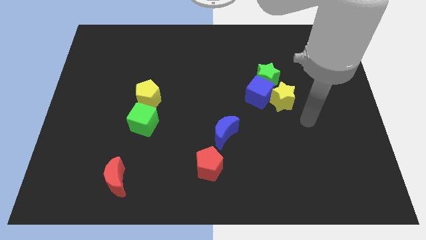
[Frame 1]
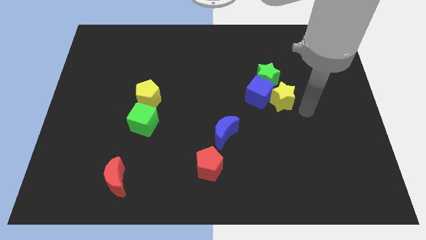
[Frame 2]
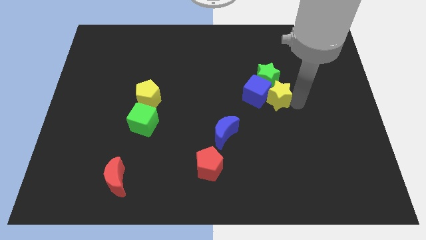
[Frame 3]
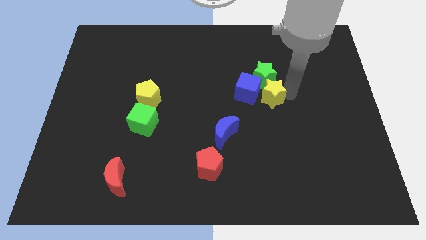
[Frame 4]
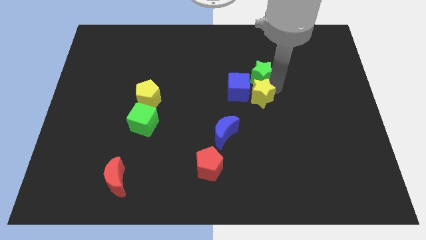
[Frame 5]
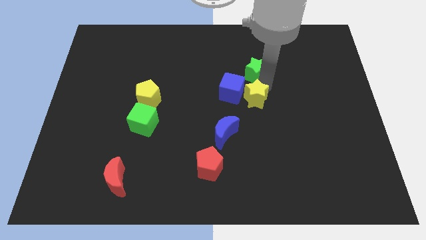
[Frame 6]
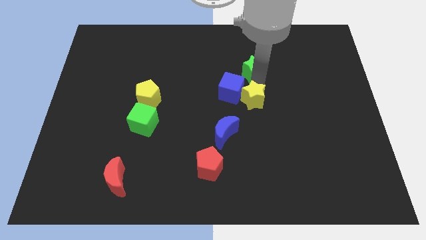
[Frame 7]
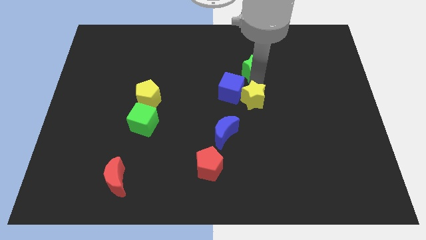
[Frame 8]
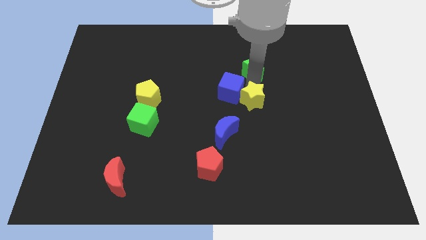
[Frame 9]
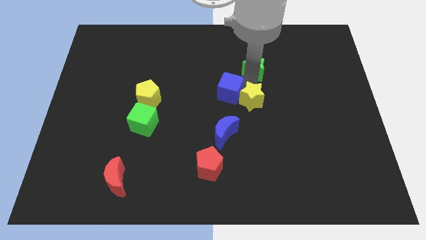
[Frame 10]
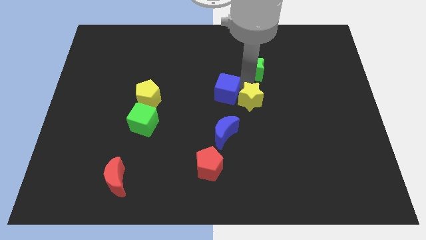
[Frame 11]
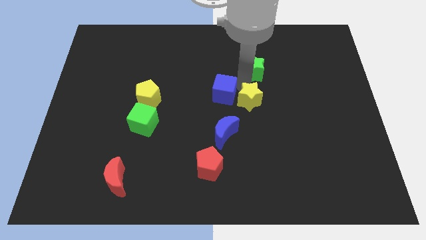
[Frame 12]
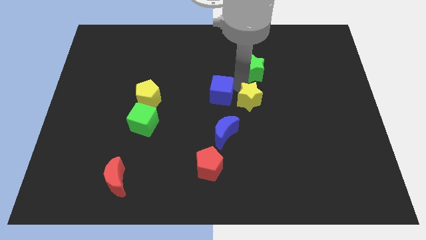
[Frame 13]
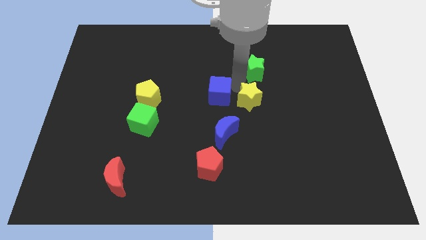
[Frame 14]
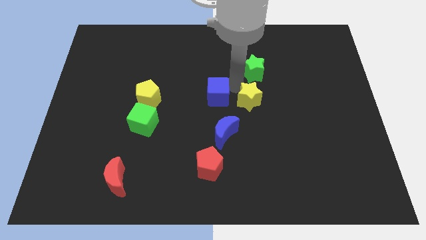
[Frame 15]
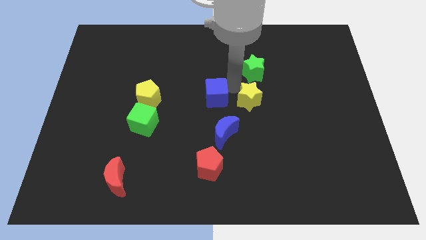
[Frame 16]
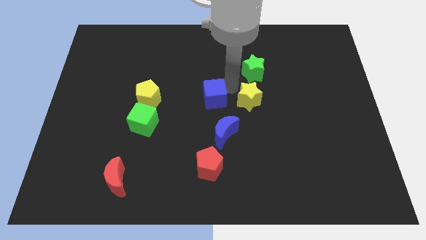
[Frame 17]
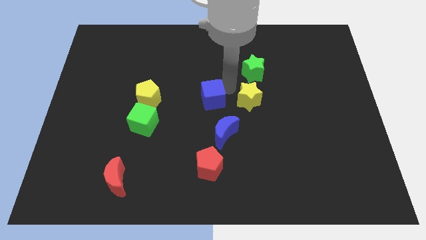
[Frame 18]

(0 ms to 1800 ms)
move the blue cube away from the yellow star and green star

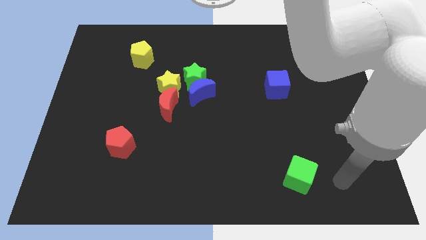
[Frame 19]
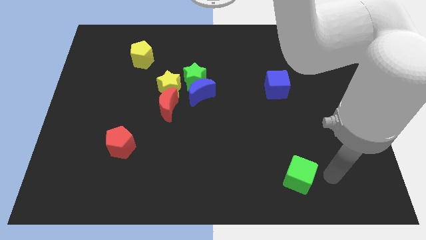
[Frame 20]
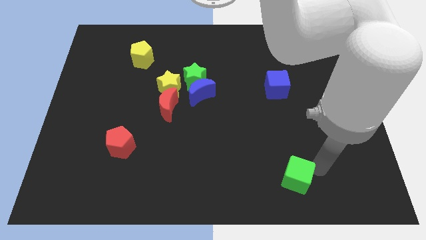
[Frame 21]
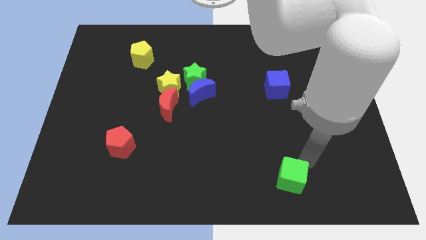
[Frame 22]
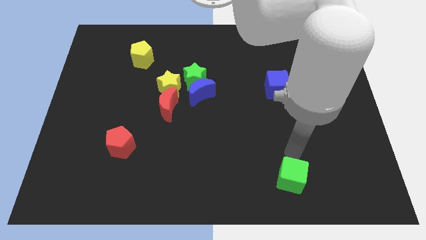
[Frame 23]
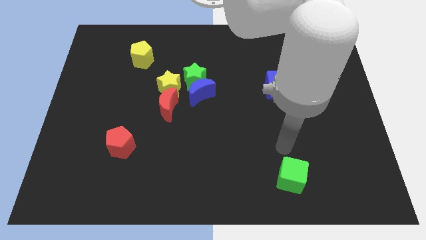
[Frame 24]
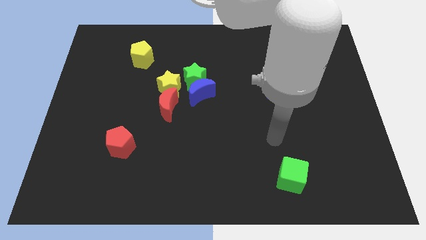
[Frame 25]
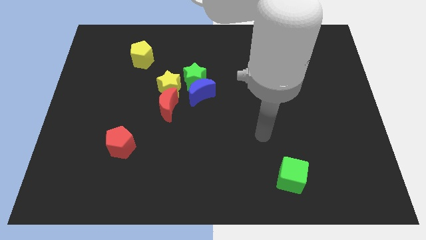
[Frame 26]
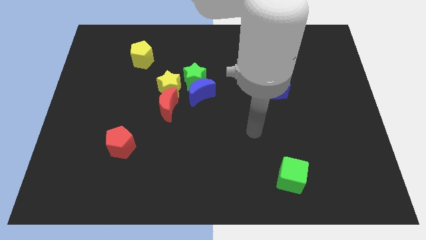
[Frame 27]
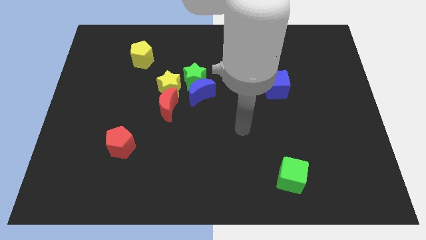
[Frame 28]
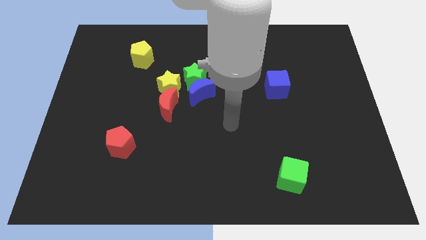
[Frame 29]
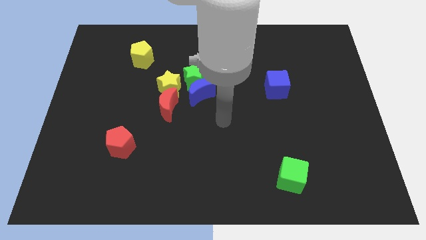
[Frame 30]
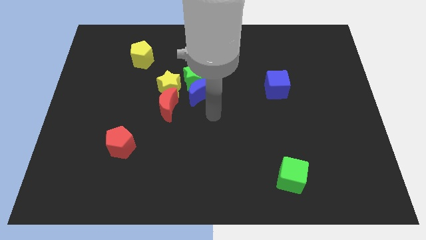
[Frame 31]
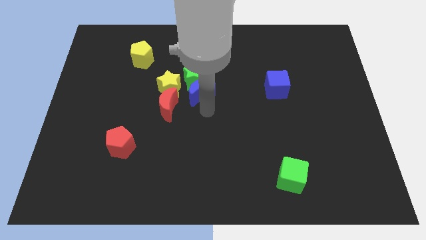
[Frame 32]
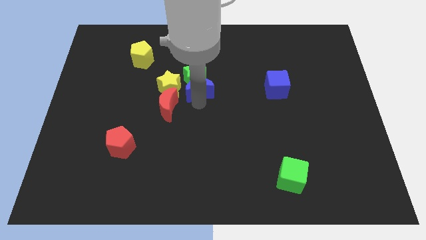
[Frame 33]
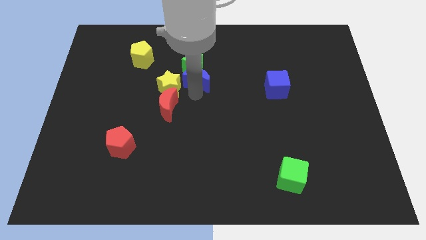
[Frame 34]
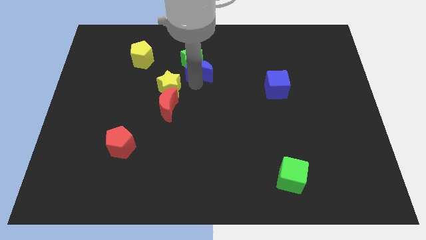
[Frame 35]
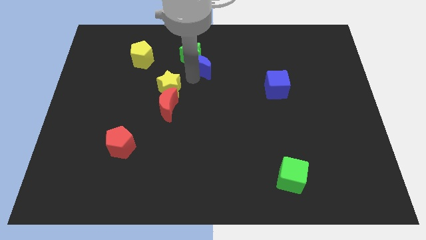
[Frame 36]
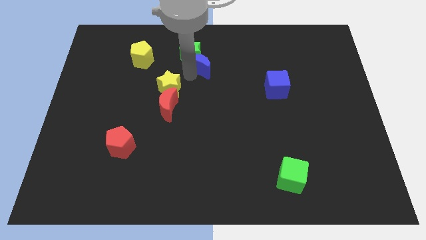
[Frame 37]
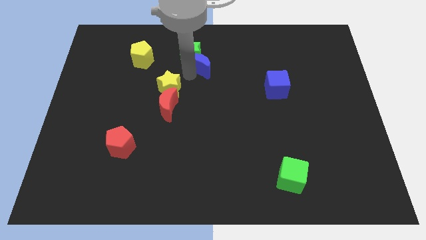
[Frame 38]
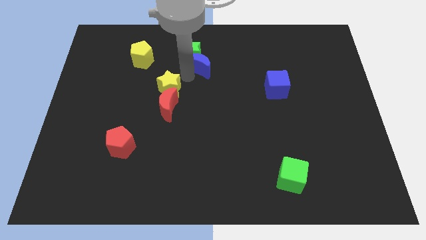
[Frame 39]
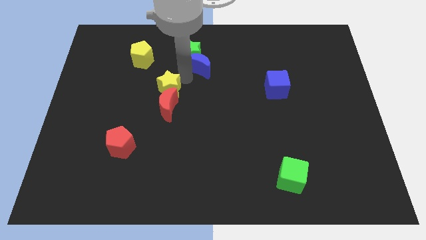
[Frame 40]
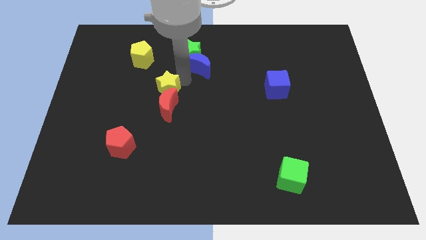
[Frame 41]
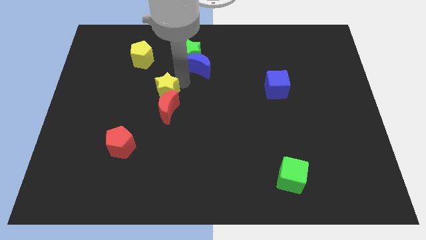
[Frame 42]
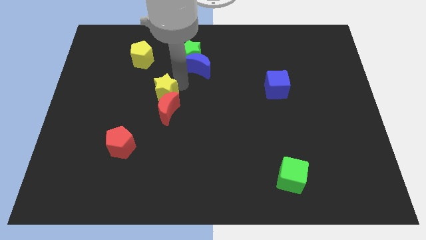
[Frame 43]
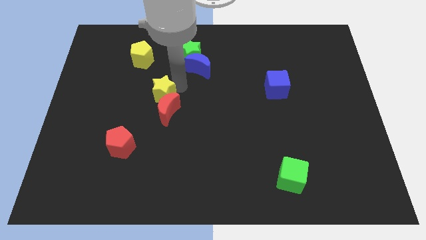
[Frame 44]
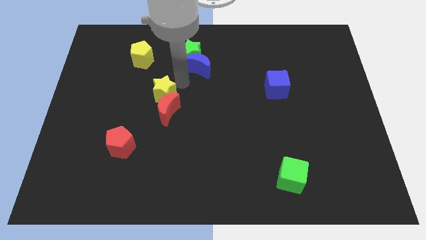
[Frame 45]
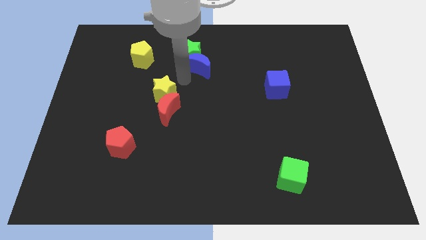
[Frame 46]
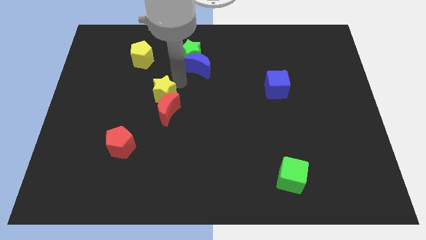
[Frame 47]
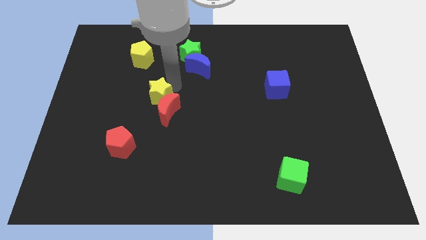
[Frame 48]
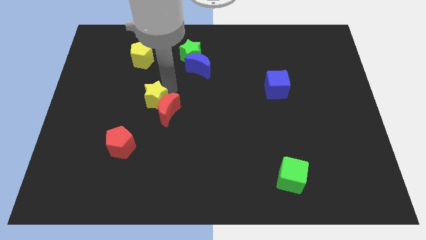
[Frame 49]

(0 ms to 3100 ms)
separate the yellow star from the red moon, green star, and blue moon

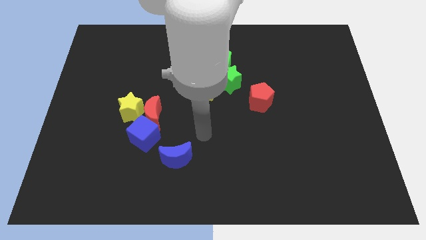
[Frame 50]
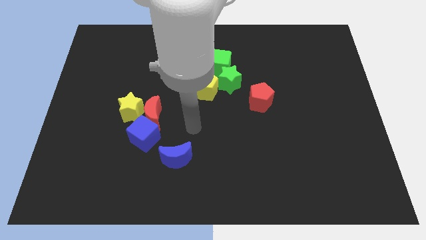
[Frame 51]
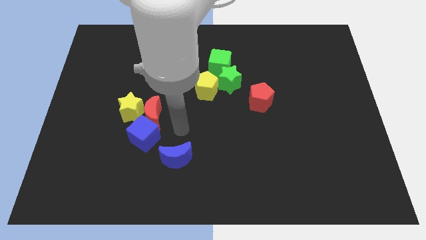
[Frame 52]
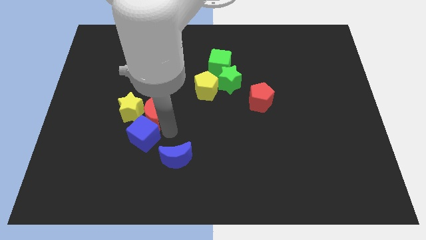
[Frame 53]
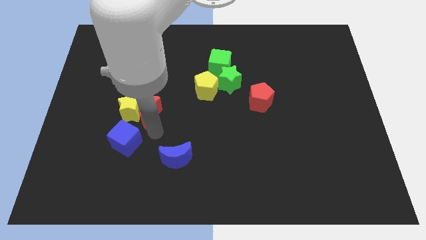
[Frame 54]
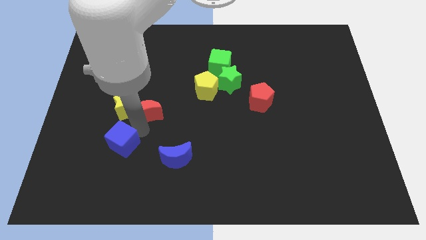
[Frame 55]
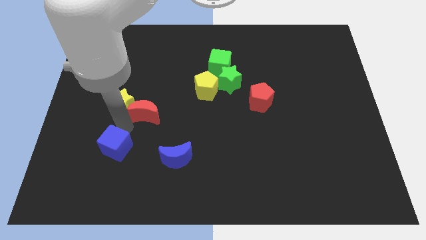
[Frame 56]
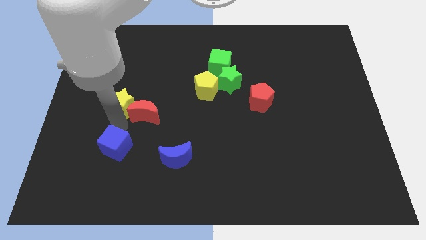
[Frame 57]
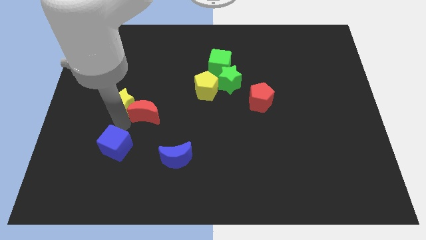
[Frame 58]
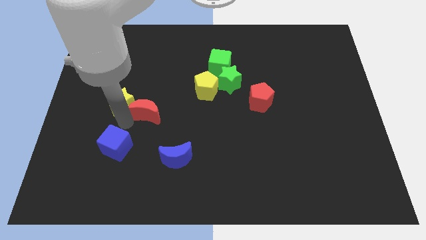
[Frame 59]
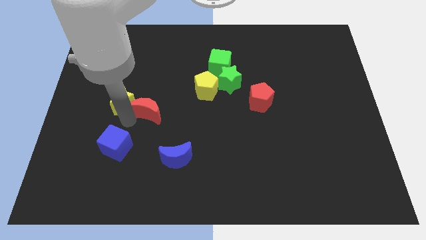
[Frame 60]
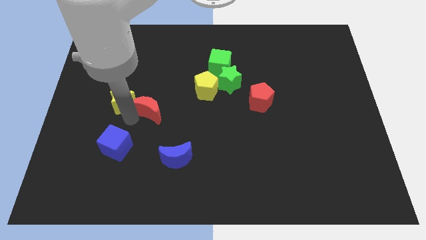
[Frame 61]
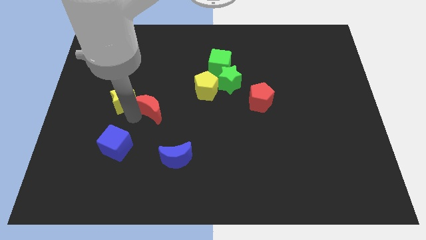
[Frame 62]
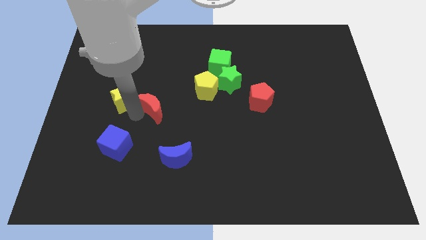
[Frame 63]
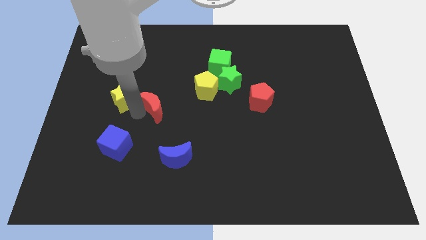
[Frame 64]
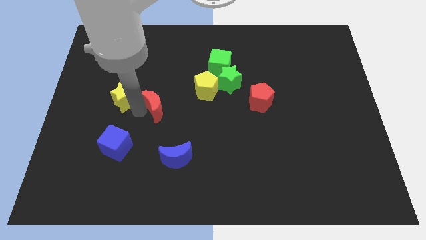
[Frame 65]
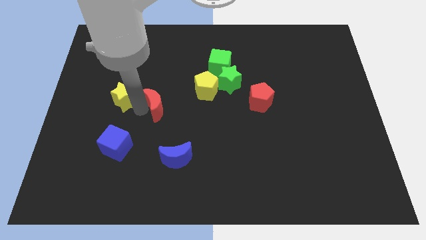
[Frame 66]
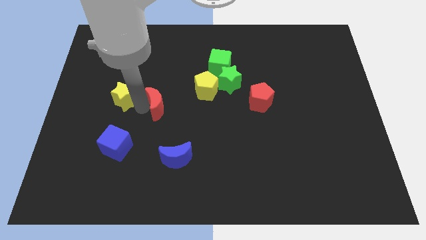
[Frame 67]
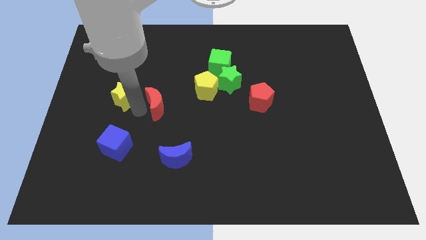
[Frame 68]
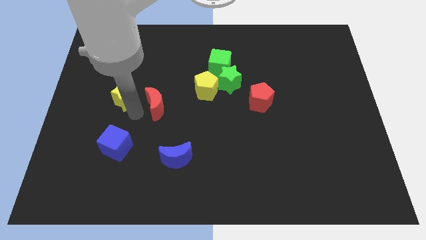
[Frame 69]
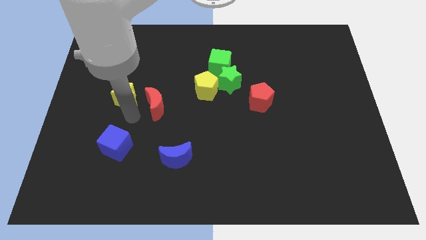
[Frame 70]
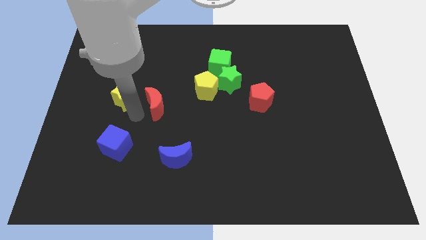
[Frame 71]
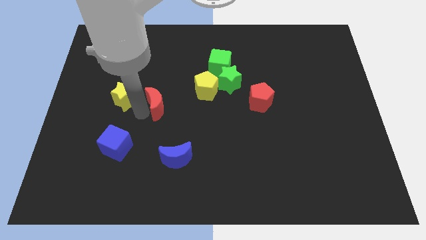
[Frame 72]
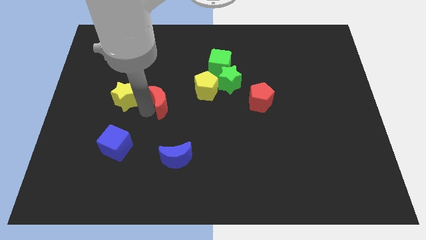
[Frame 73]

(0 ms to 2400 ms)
move the red moon away from the yellow star and blue cube

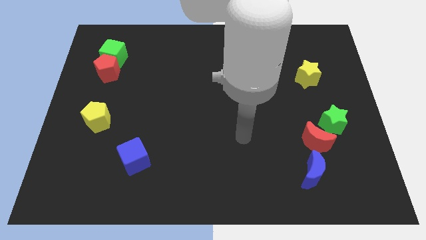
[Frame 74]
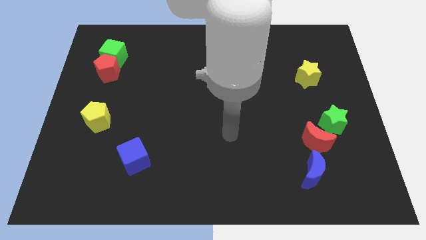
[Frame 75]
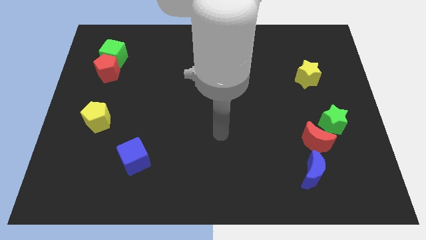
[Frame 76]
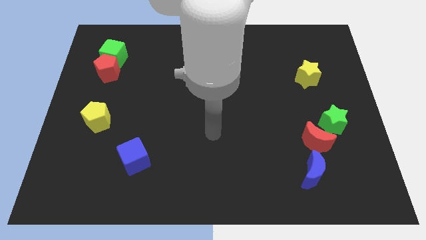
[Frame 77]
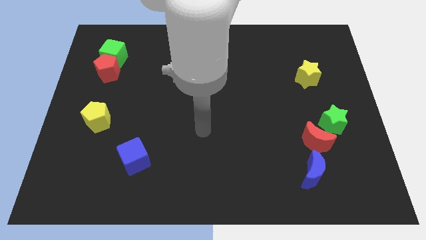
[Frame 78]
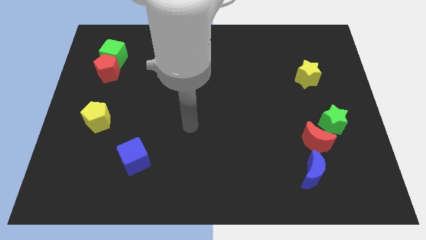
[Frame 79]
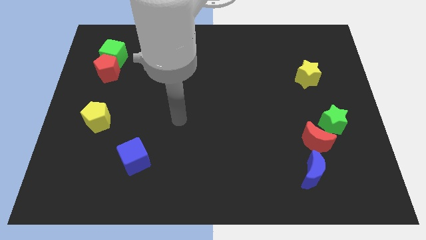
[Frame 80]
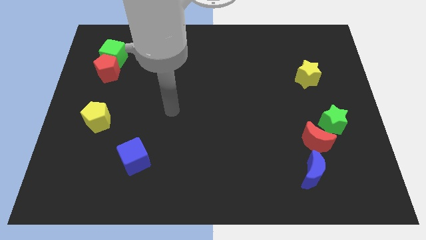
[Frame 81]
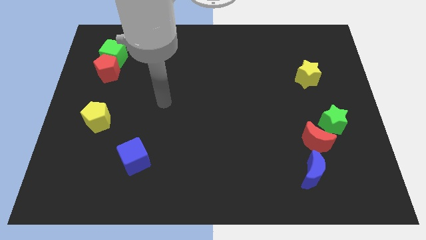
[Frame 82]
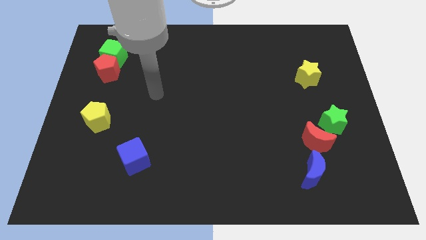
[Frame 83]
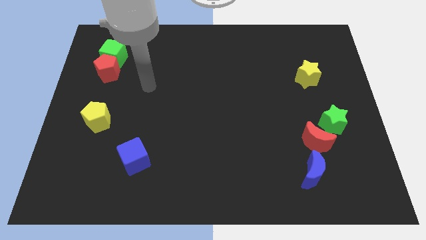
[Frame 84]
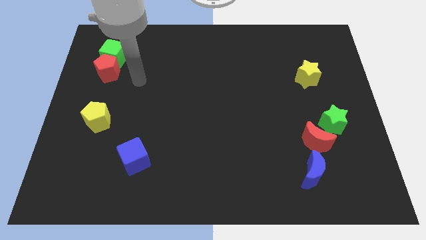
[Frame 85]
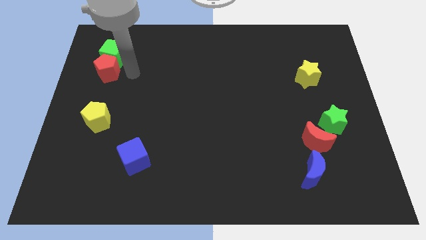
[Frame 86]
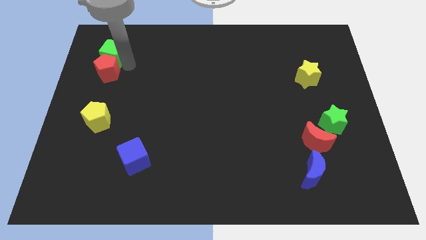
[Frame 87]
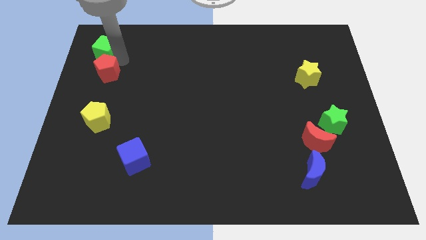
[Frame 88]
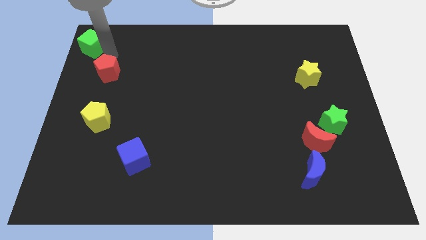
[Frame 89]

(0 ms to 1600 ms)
separate the red pentagon from the green cube

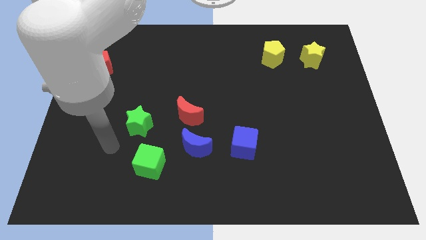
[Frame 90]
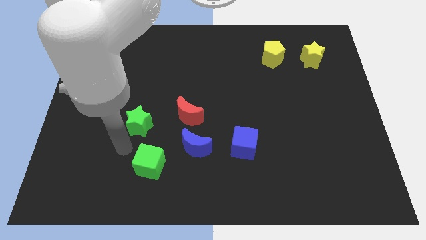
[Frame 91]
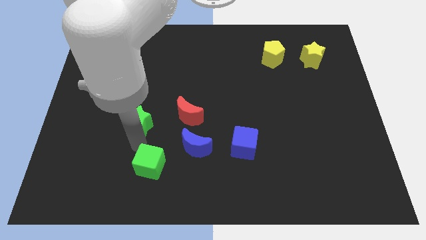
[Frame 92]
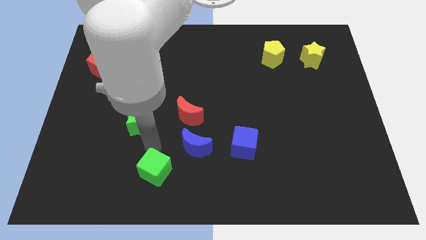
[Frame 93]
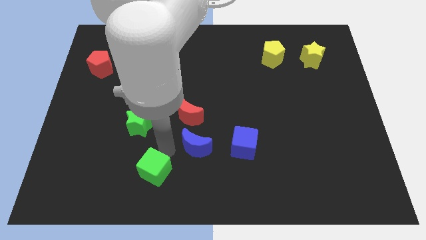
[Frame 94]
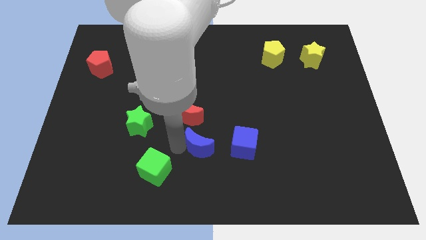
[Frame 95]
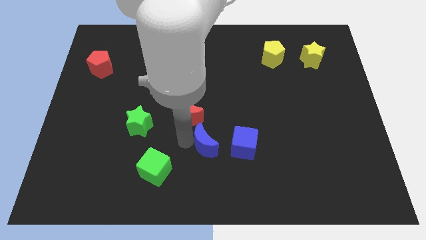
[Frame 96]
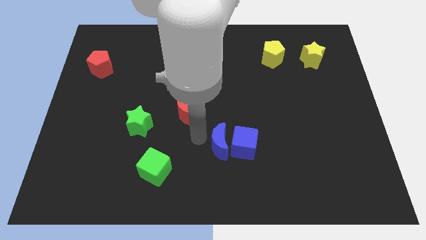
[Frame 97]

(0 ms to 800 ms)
pull the red moon apart from the blue moon
